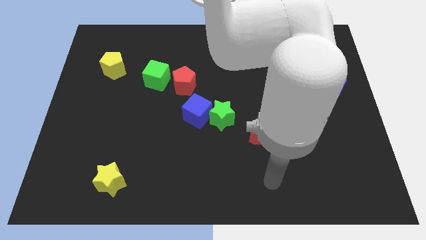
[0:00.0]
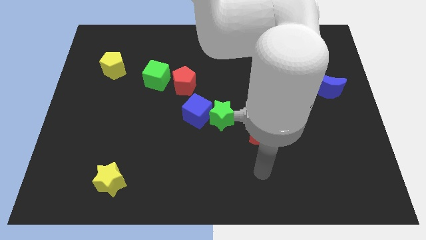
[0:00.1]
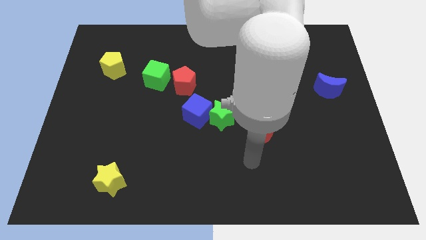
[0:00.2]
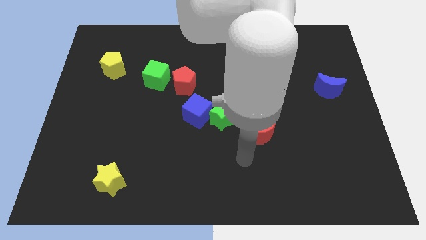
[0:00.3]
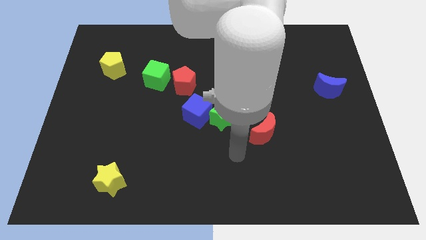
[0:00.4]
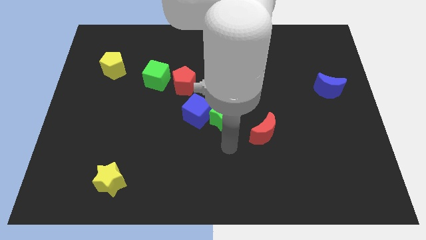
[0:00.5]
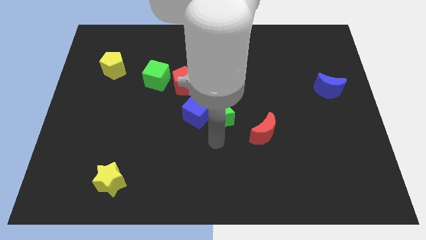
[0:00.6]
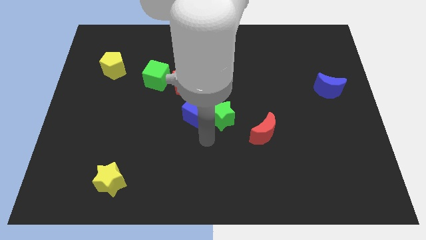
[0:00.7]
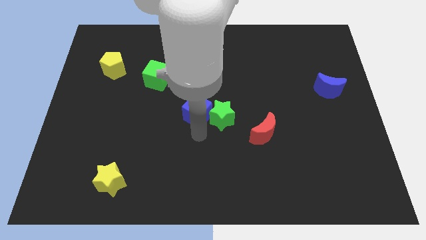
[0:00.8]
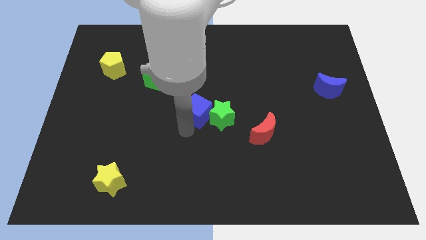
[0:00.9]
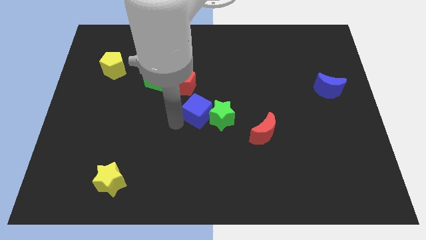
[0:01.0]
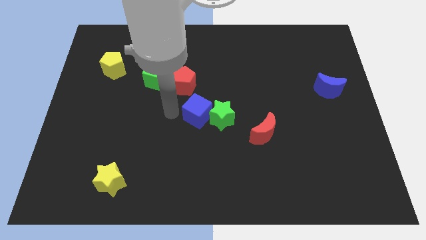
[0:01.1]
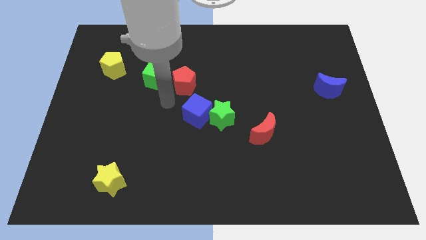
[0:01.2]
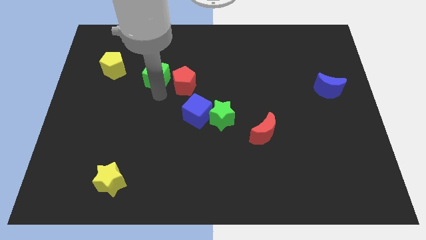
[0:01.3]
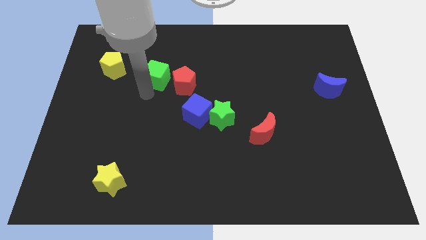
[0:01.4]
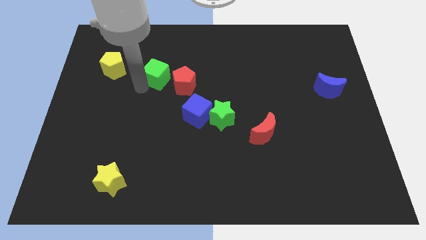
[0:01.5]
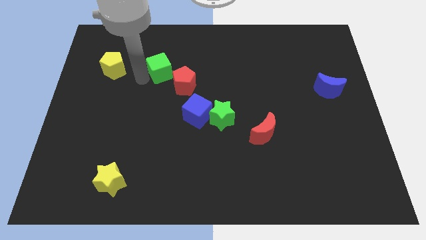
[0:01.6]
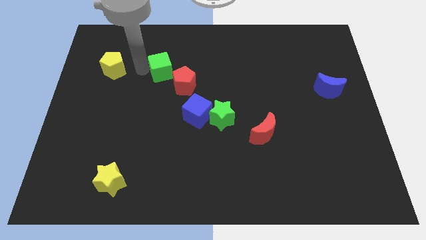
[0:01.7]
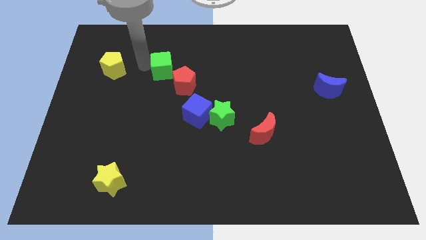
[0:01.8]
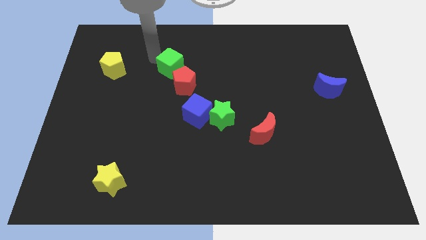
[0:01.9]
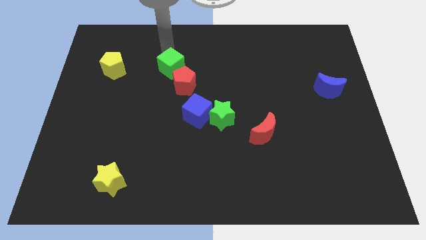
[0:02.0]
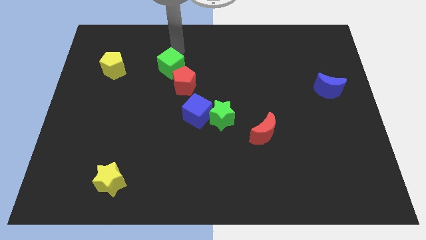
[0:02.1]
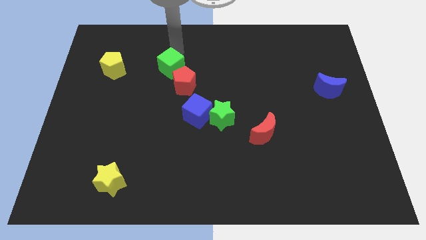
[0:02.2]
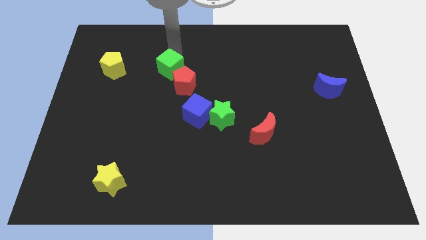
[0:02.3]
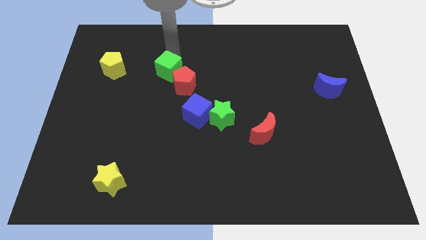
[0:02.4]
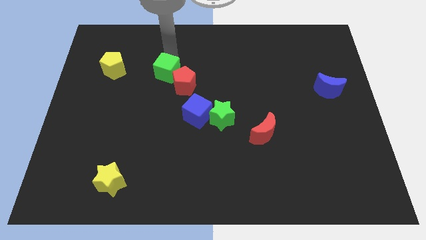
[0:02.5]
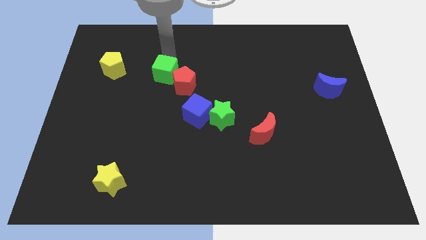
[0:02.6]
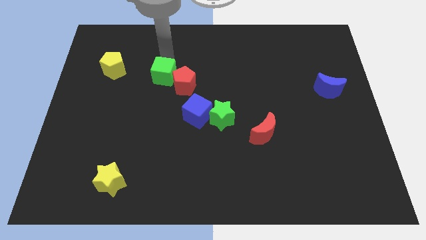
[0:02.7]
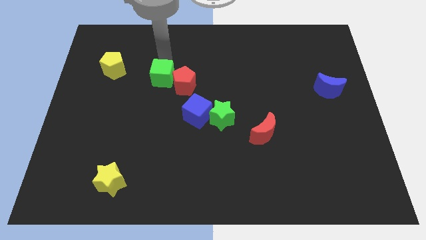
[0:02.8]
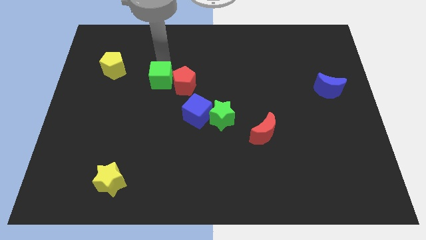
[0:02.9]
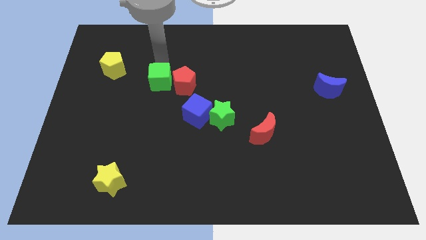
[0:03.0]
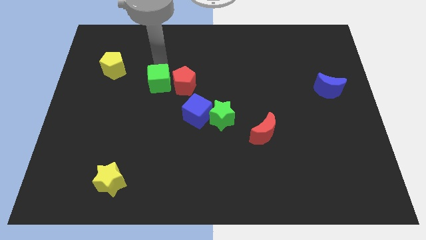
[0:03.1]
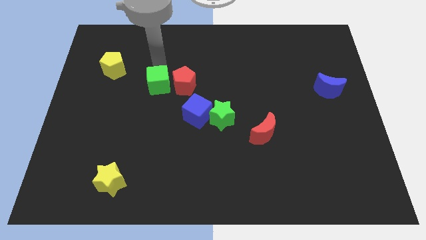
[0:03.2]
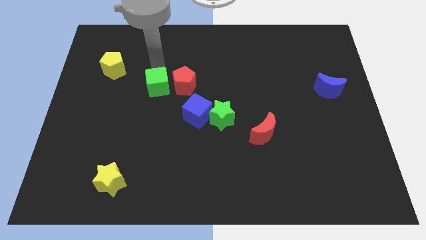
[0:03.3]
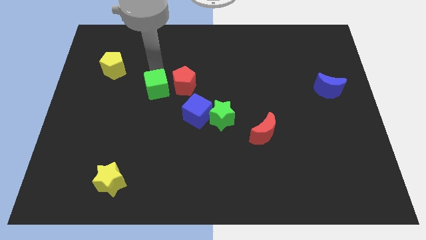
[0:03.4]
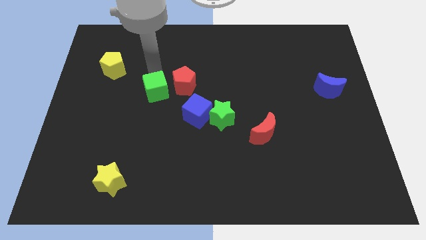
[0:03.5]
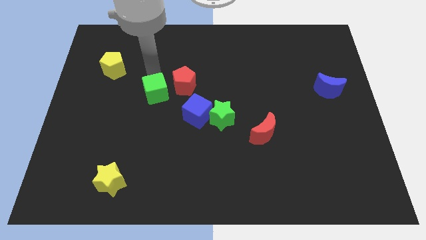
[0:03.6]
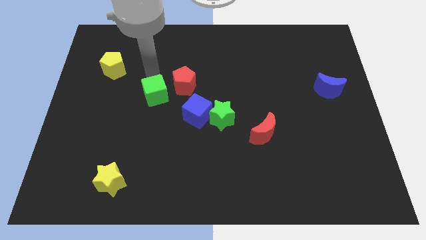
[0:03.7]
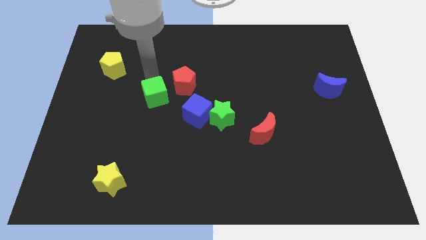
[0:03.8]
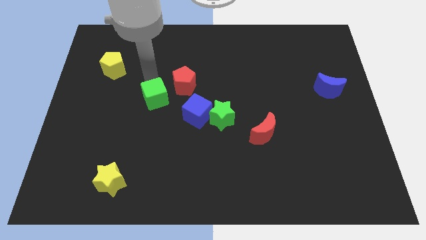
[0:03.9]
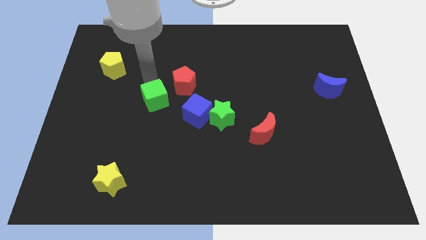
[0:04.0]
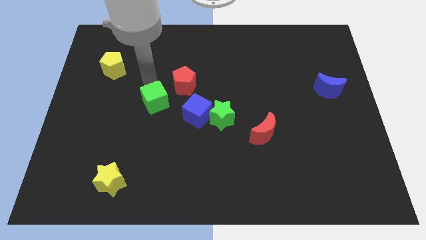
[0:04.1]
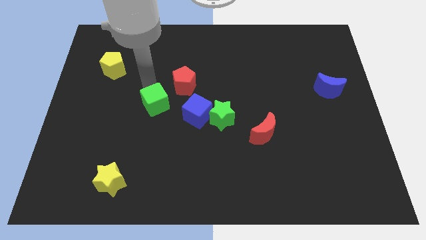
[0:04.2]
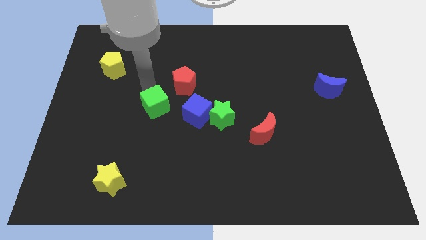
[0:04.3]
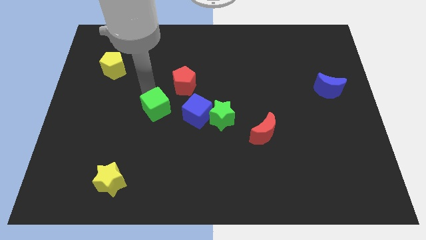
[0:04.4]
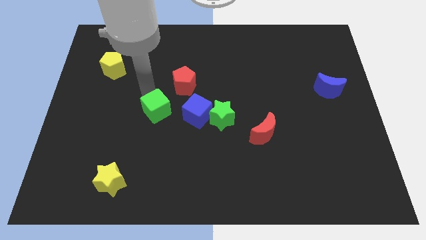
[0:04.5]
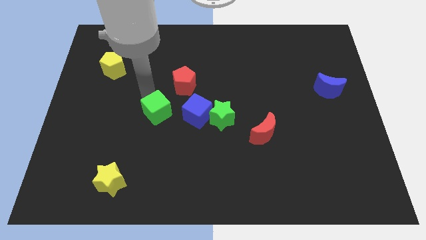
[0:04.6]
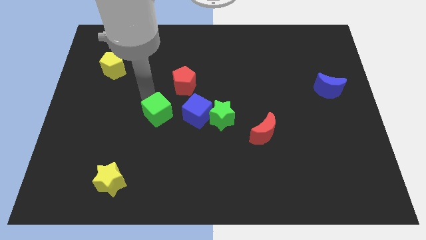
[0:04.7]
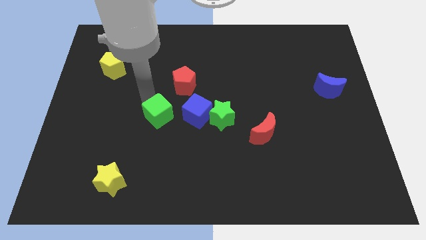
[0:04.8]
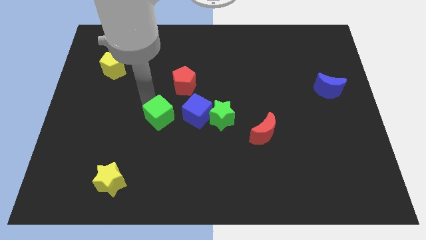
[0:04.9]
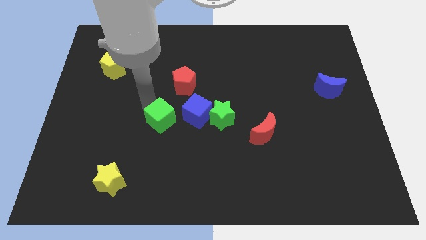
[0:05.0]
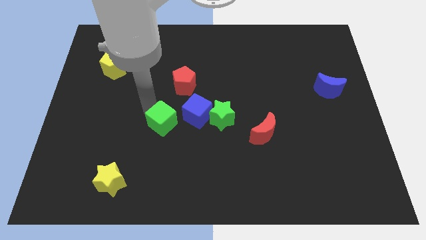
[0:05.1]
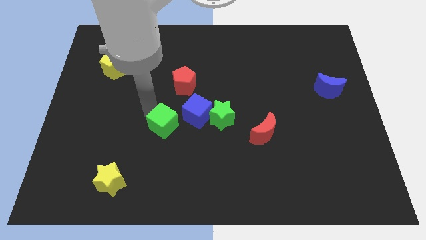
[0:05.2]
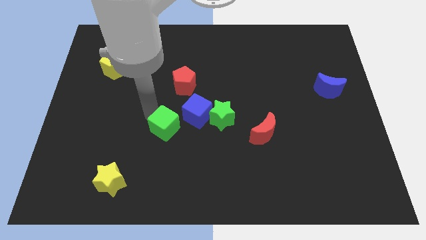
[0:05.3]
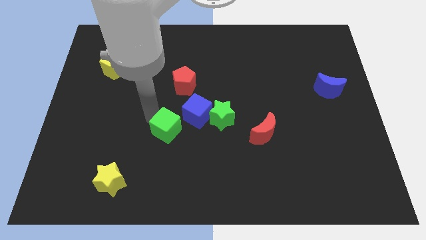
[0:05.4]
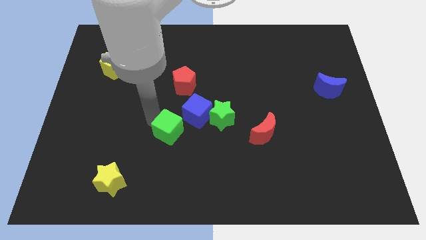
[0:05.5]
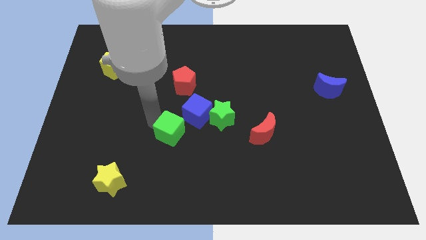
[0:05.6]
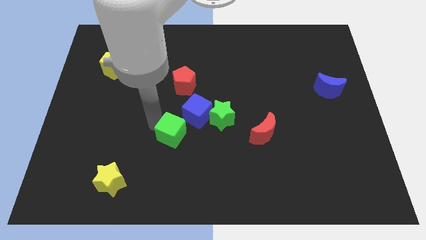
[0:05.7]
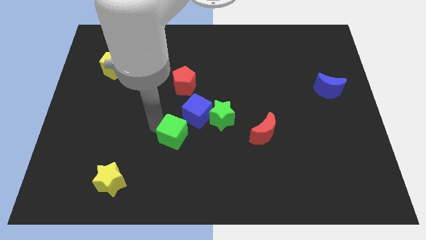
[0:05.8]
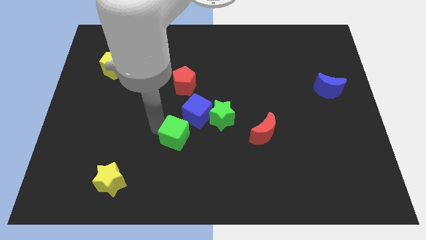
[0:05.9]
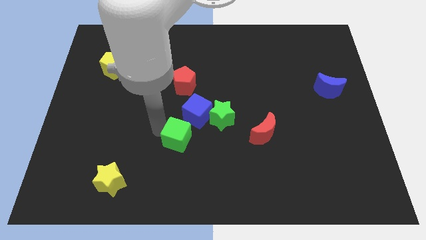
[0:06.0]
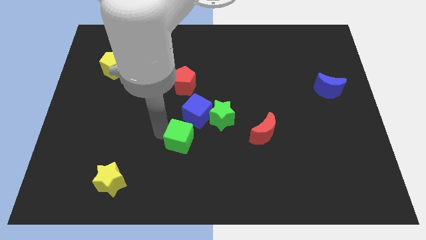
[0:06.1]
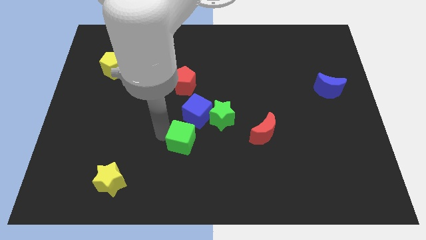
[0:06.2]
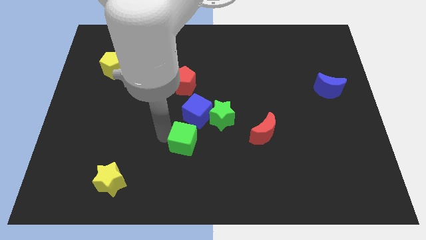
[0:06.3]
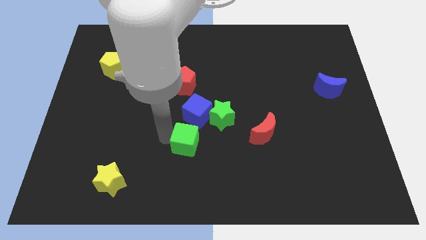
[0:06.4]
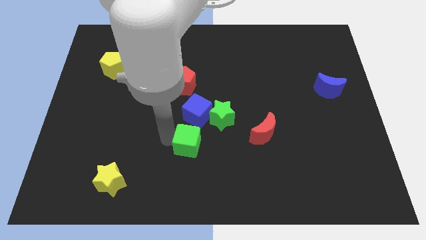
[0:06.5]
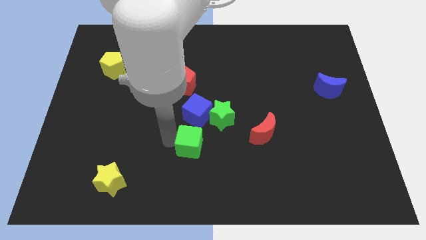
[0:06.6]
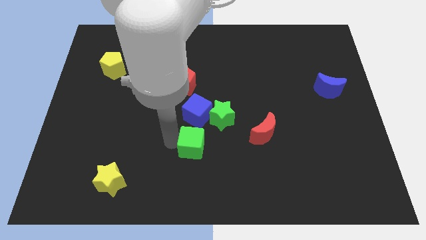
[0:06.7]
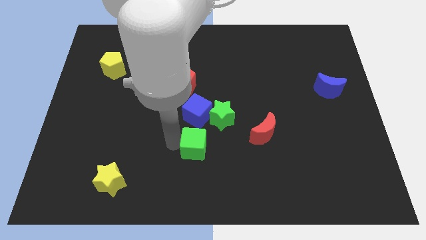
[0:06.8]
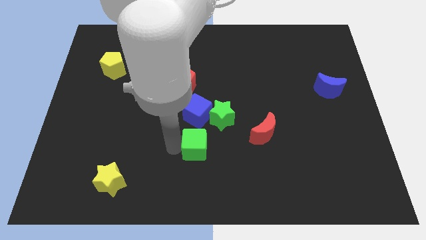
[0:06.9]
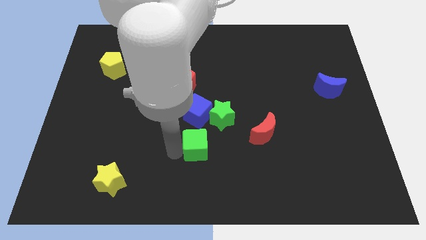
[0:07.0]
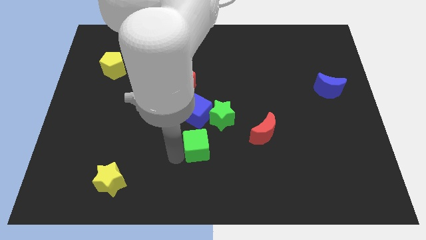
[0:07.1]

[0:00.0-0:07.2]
push the green cube diagonally down and right

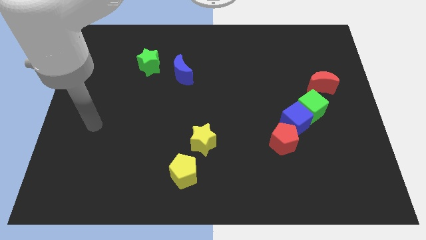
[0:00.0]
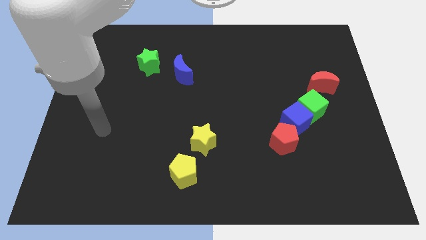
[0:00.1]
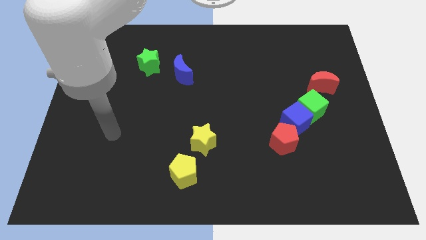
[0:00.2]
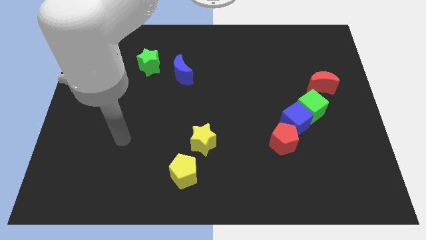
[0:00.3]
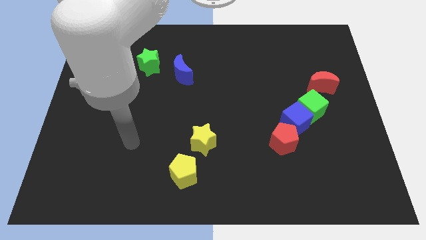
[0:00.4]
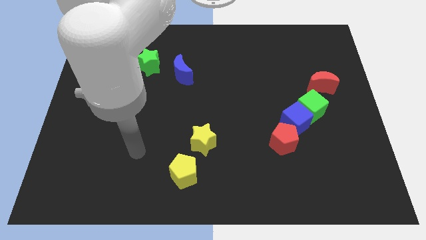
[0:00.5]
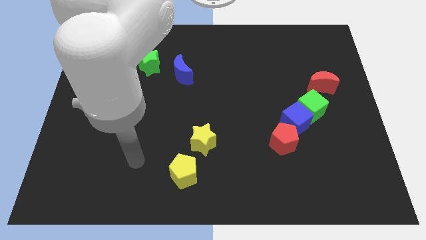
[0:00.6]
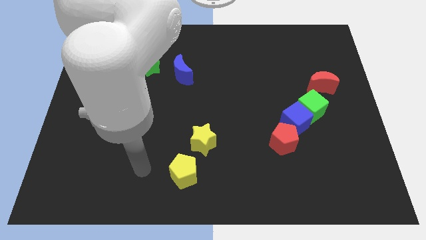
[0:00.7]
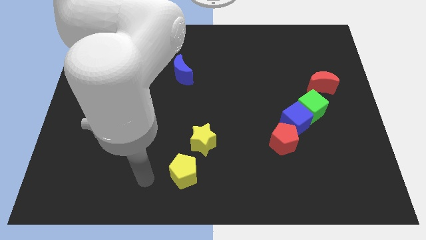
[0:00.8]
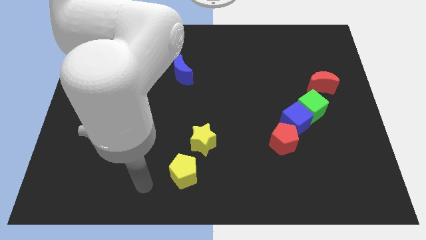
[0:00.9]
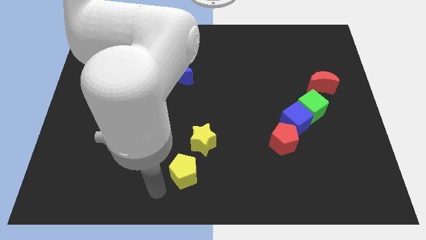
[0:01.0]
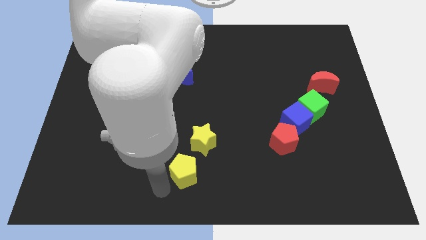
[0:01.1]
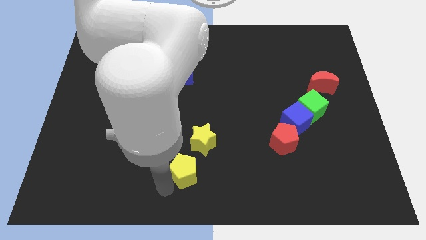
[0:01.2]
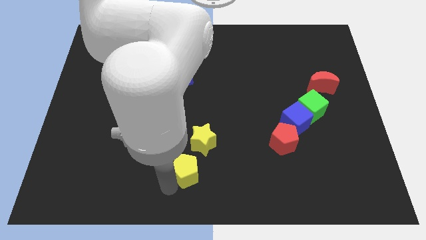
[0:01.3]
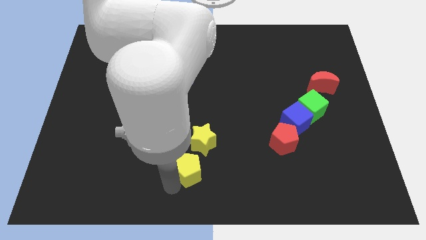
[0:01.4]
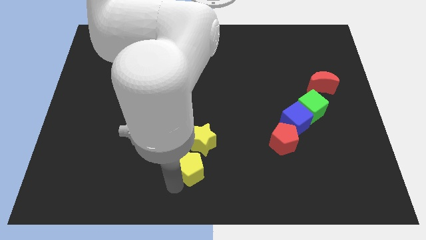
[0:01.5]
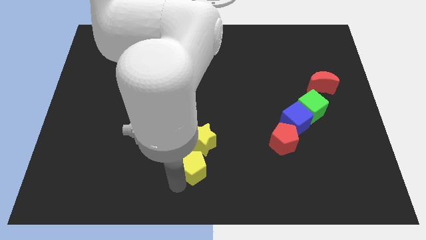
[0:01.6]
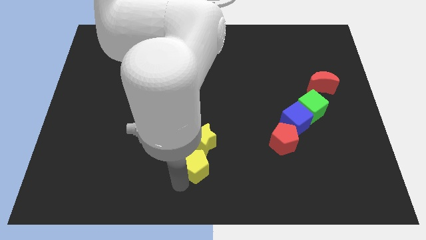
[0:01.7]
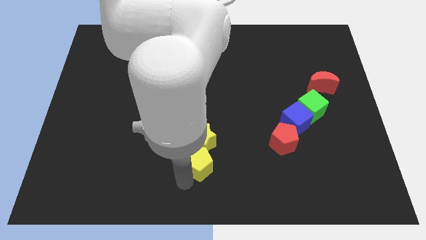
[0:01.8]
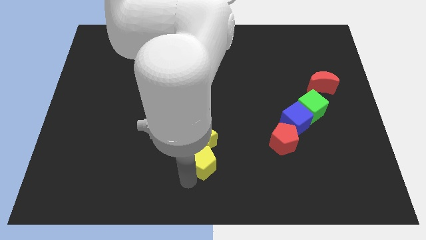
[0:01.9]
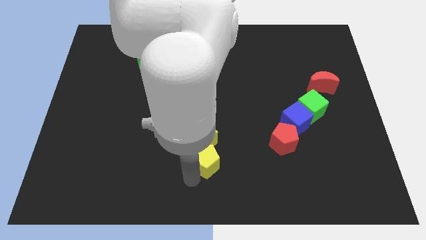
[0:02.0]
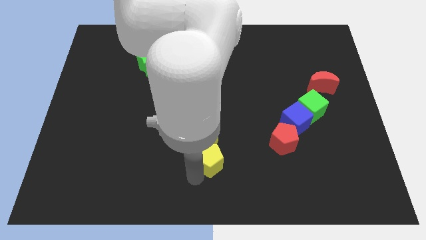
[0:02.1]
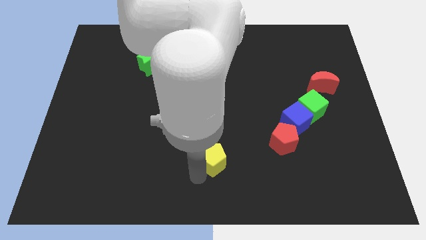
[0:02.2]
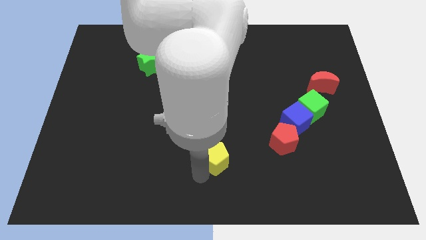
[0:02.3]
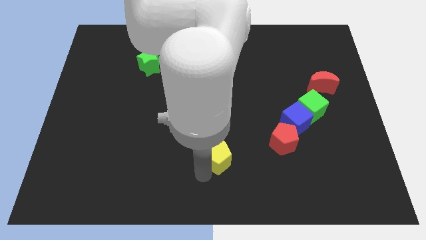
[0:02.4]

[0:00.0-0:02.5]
slide the yellow pentagon up and right a little
